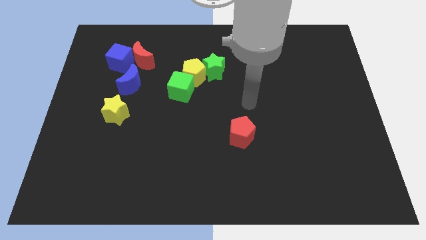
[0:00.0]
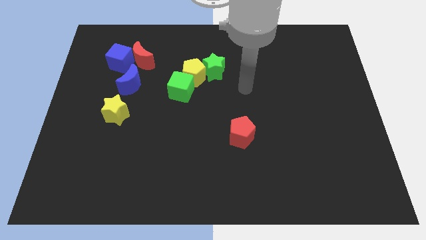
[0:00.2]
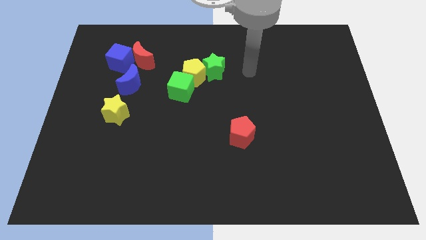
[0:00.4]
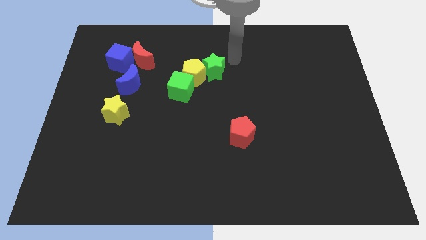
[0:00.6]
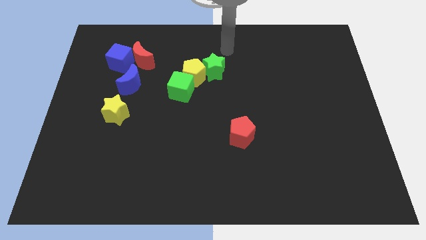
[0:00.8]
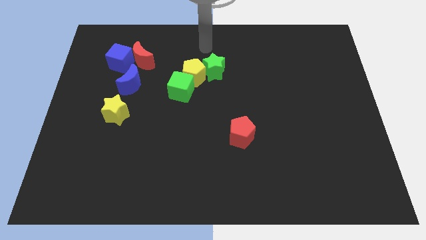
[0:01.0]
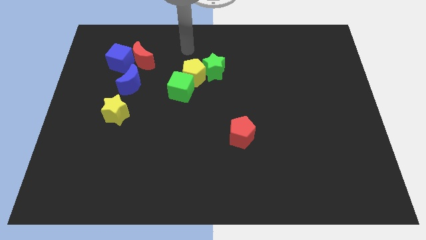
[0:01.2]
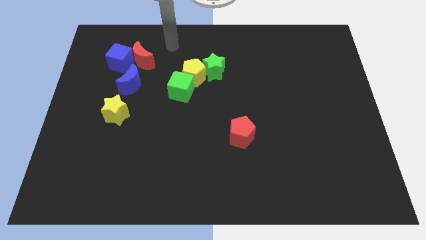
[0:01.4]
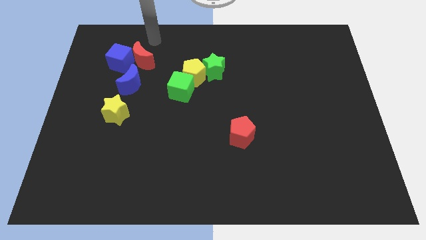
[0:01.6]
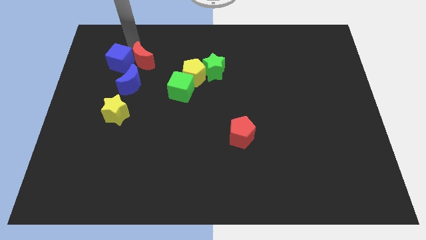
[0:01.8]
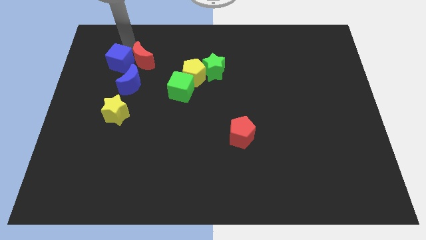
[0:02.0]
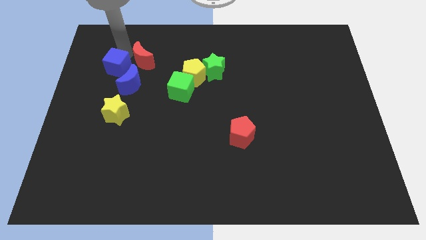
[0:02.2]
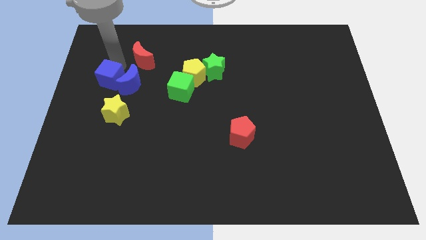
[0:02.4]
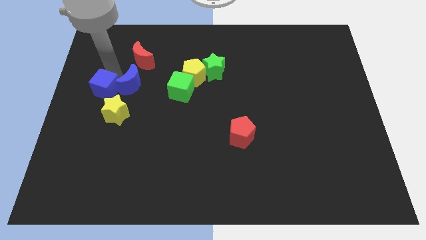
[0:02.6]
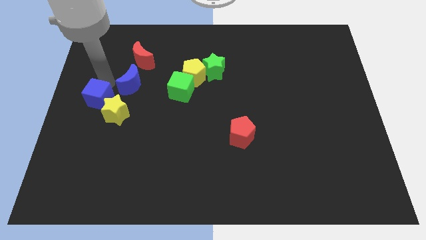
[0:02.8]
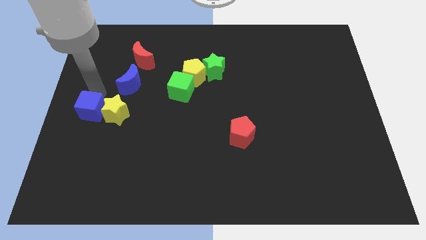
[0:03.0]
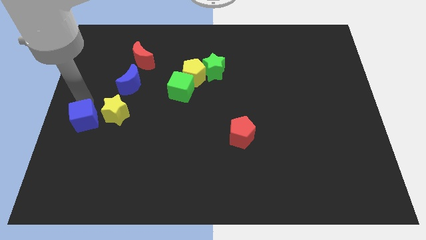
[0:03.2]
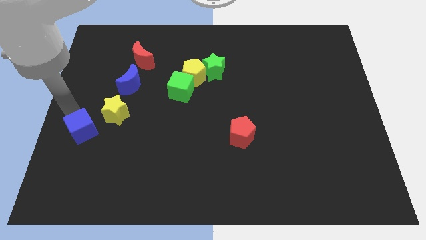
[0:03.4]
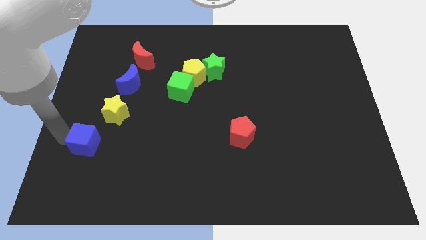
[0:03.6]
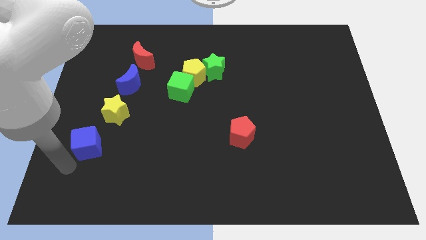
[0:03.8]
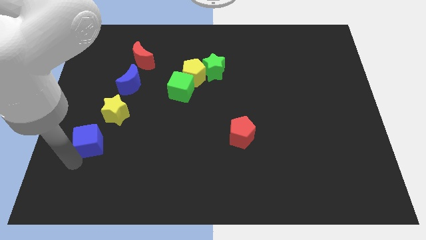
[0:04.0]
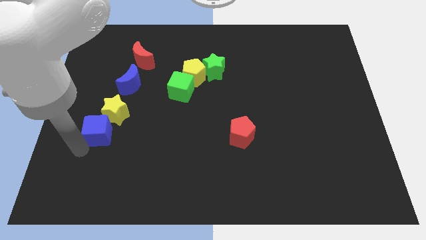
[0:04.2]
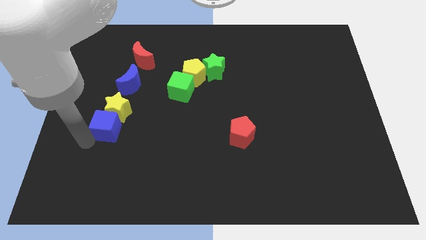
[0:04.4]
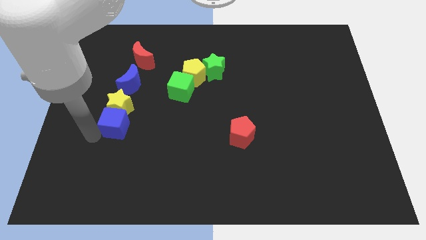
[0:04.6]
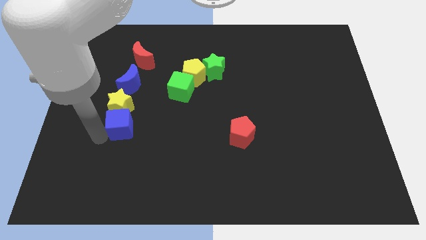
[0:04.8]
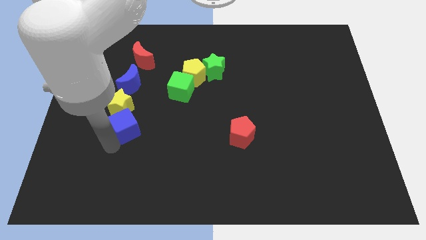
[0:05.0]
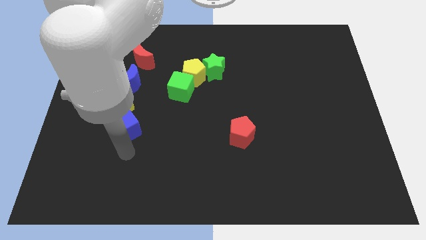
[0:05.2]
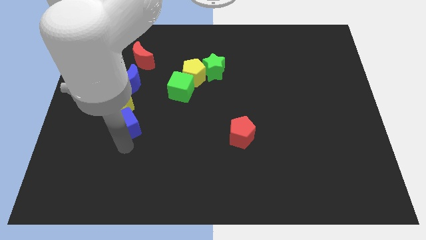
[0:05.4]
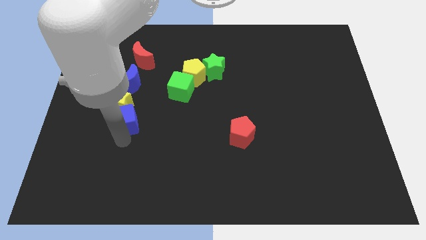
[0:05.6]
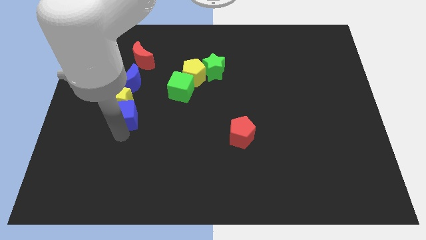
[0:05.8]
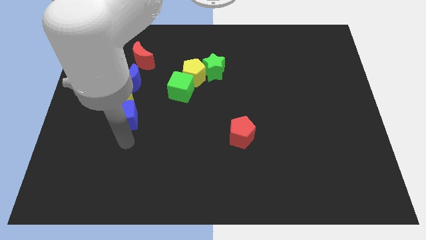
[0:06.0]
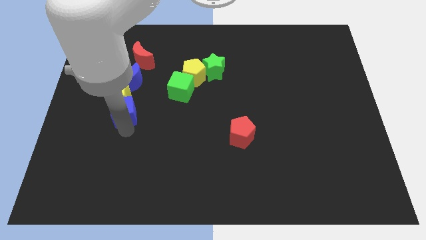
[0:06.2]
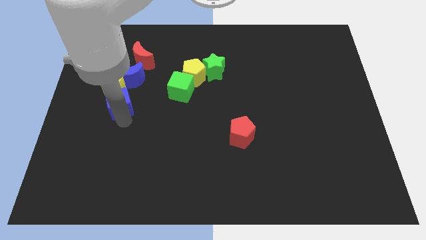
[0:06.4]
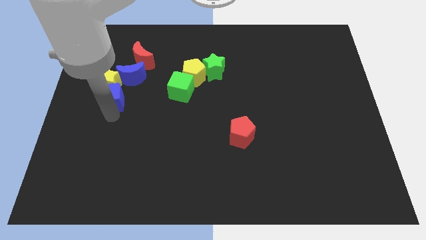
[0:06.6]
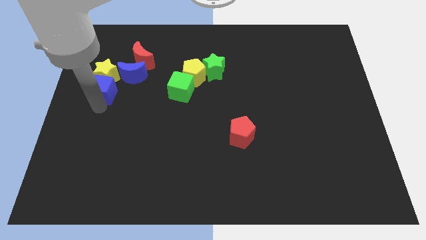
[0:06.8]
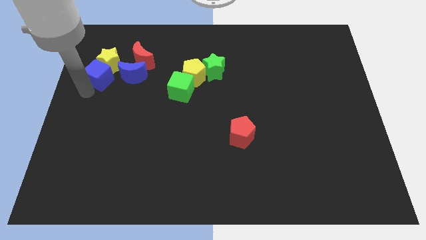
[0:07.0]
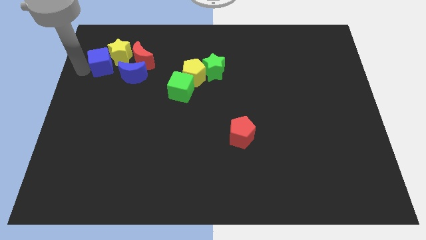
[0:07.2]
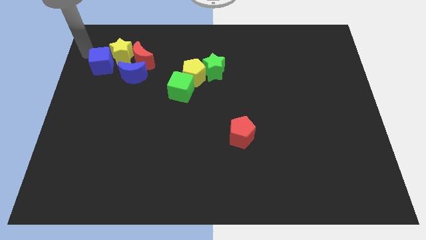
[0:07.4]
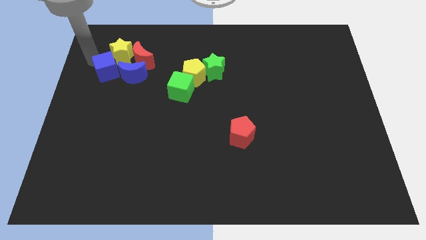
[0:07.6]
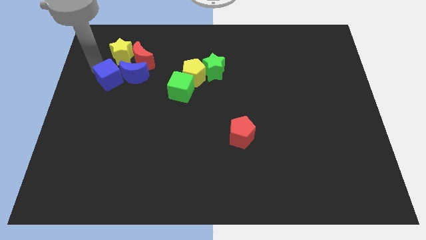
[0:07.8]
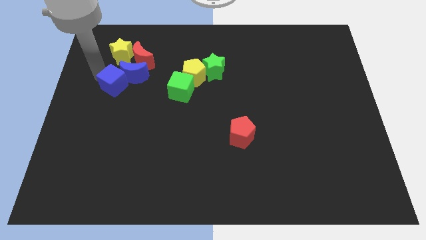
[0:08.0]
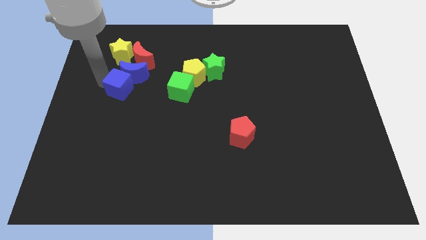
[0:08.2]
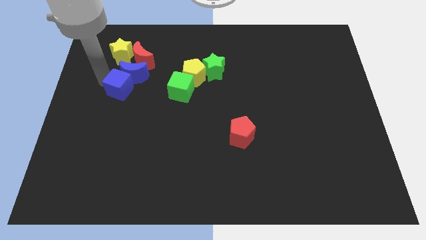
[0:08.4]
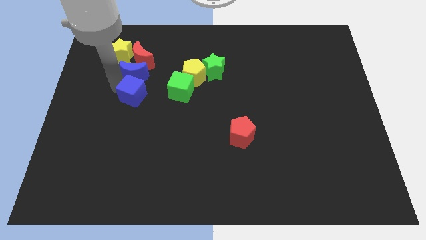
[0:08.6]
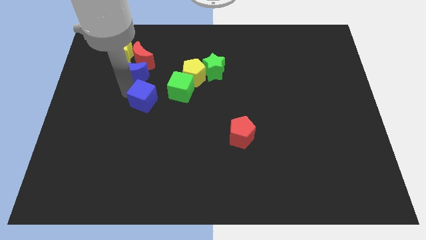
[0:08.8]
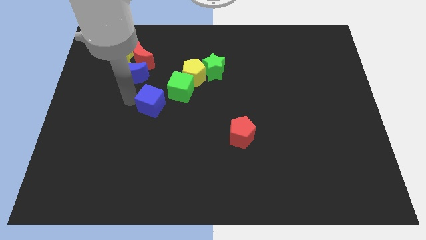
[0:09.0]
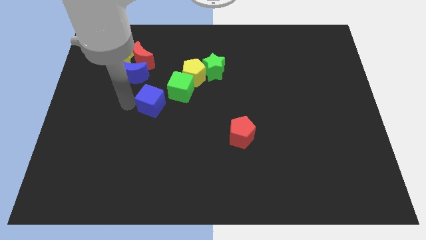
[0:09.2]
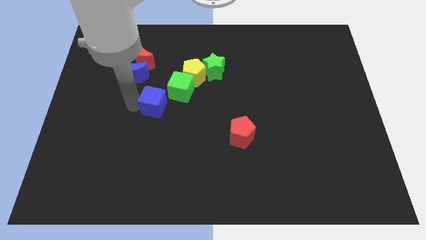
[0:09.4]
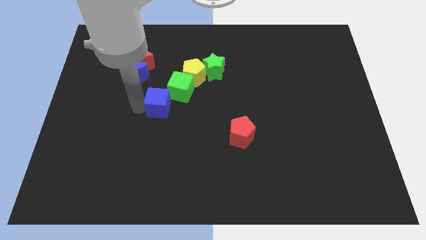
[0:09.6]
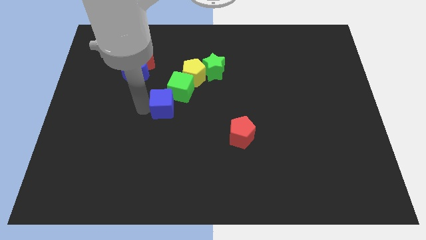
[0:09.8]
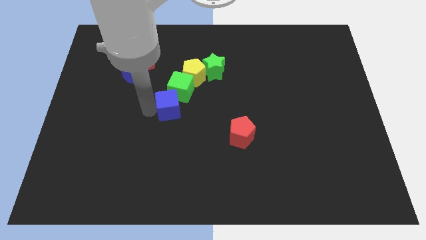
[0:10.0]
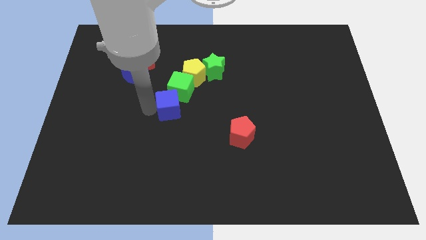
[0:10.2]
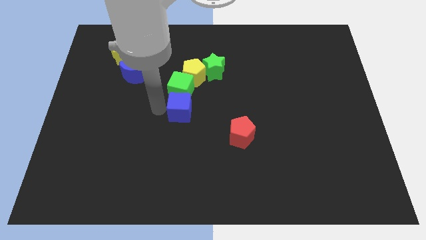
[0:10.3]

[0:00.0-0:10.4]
slide the blue cube to the bottom right side of the green cube

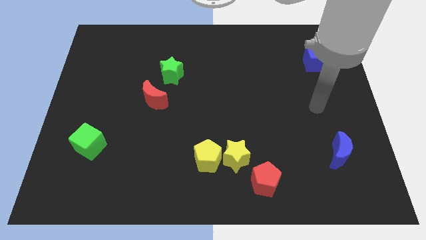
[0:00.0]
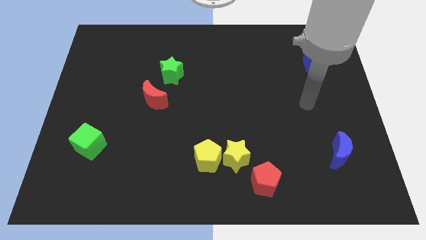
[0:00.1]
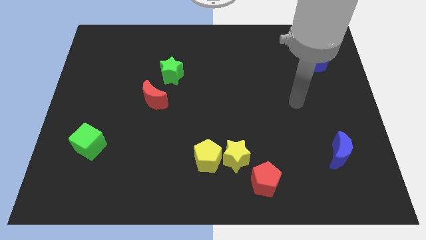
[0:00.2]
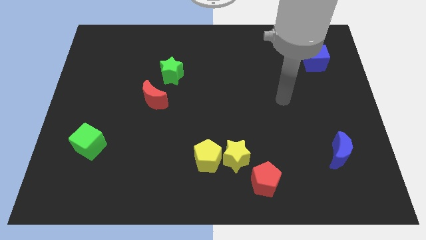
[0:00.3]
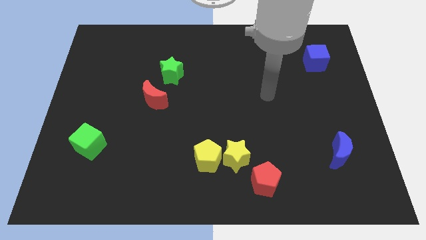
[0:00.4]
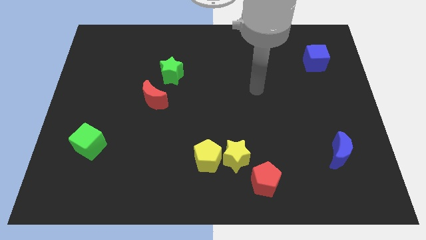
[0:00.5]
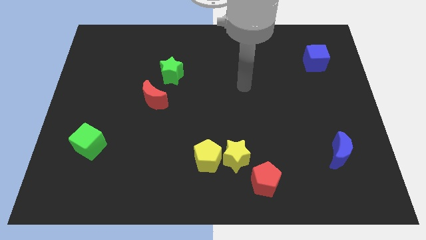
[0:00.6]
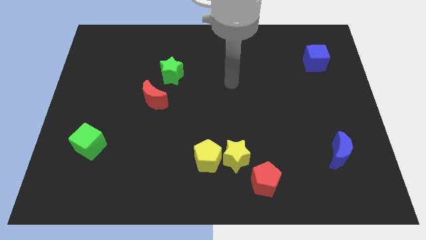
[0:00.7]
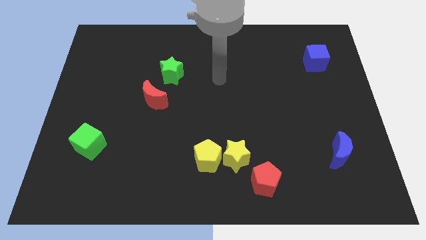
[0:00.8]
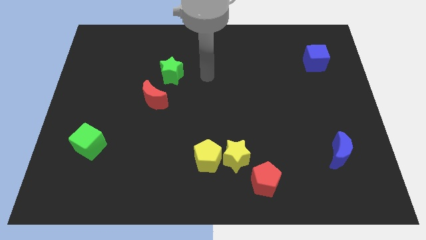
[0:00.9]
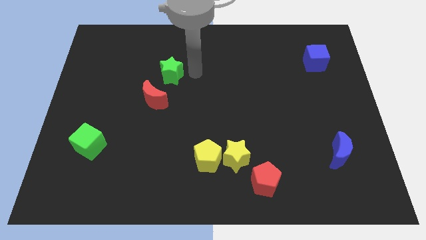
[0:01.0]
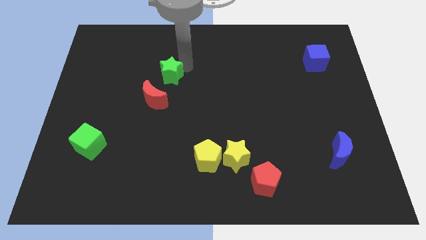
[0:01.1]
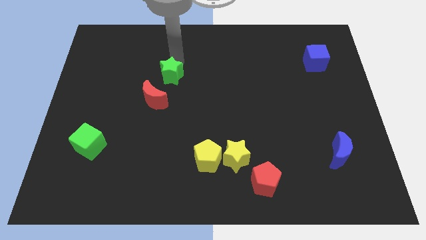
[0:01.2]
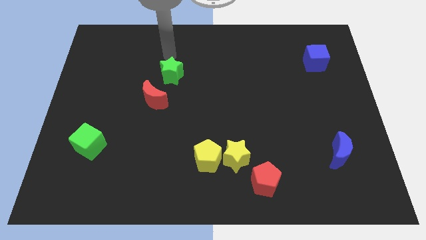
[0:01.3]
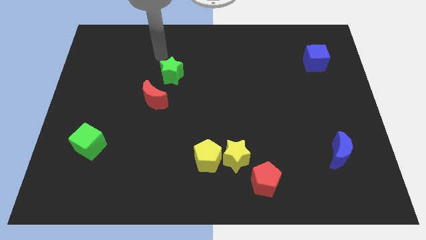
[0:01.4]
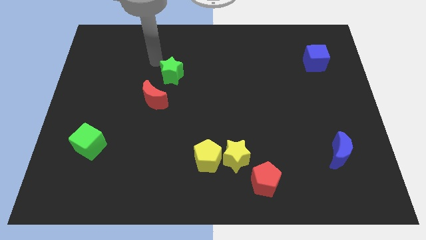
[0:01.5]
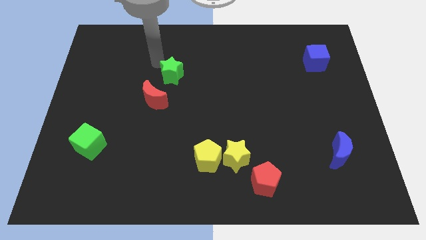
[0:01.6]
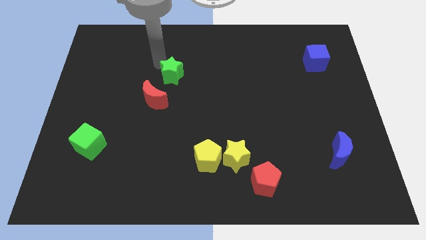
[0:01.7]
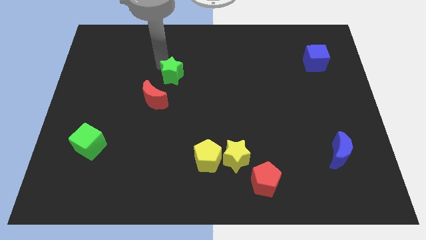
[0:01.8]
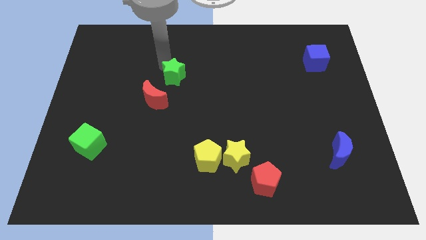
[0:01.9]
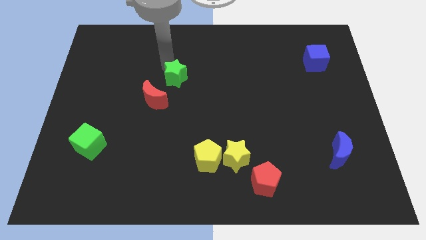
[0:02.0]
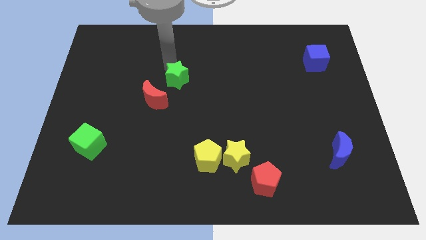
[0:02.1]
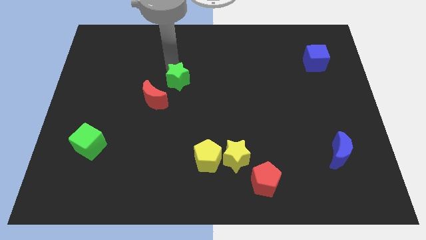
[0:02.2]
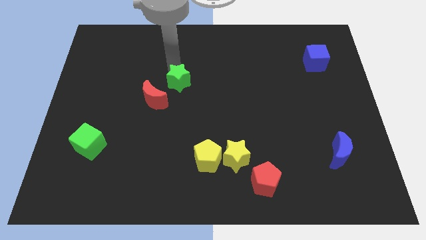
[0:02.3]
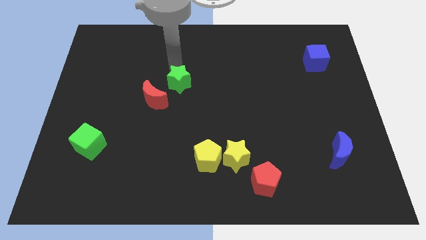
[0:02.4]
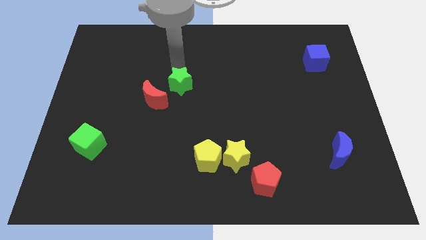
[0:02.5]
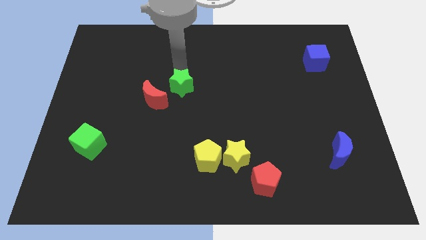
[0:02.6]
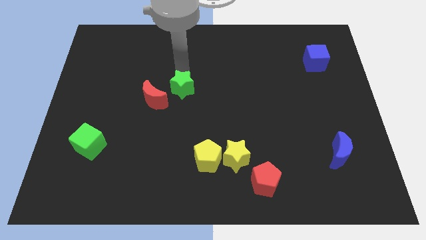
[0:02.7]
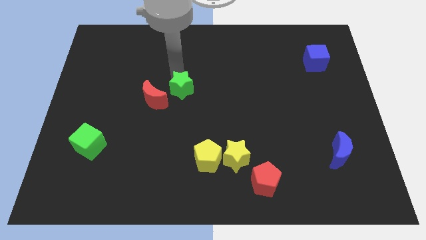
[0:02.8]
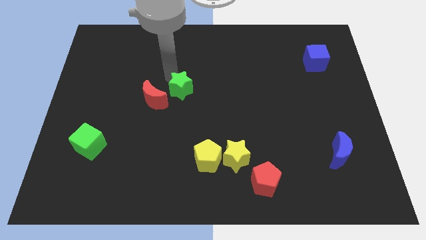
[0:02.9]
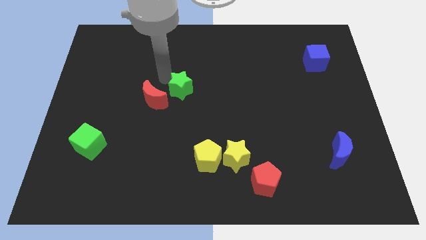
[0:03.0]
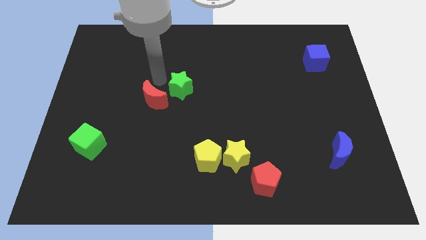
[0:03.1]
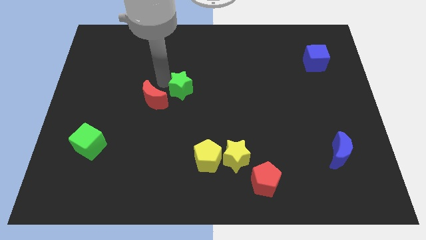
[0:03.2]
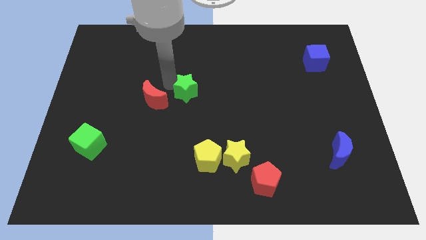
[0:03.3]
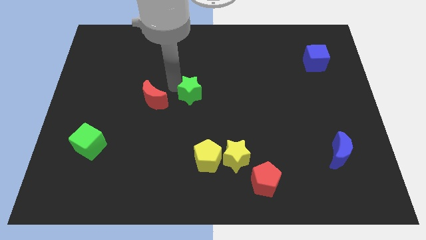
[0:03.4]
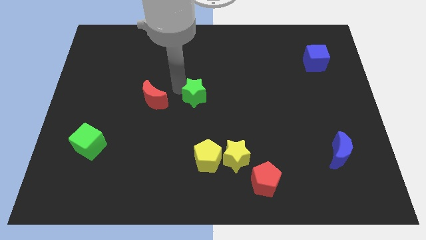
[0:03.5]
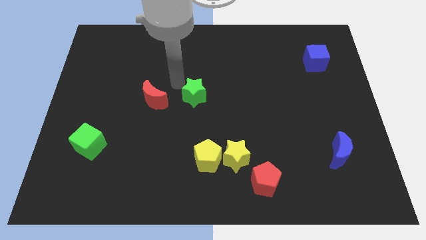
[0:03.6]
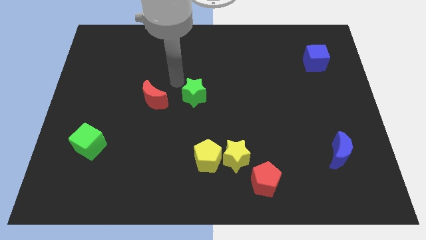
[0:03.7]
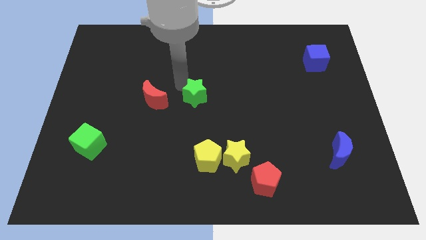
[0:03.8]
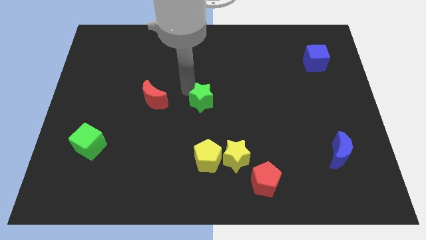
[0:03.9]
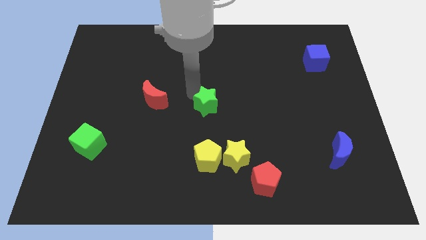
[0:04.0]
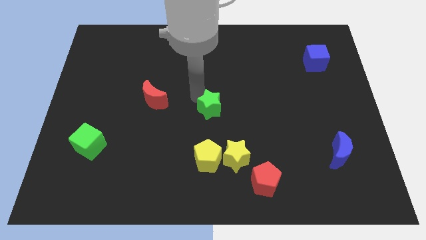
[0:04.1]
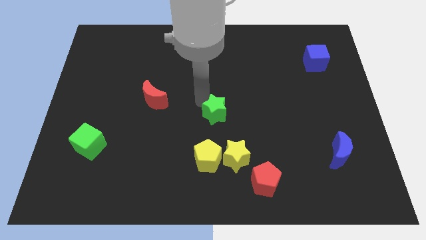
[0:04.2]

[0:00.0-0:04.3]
push the green star to the top of the yellow star
